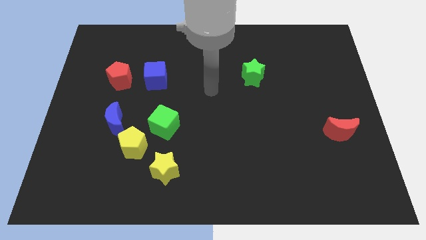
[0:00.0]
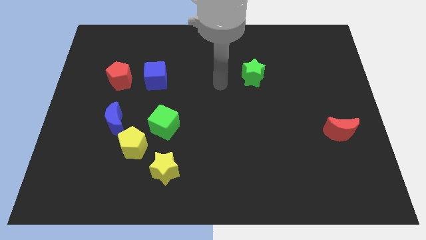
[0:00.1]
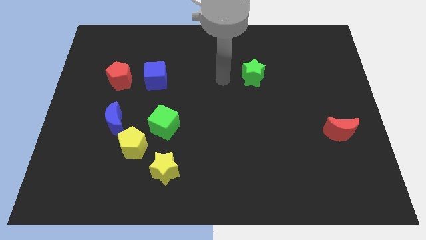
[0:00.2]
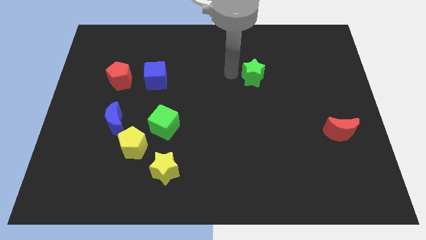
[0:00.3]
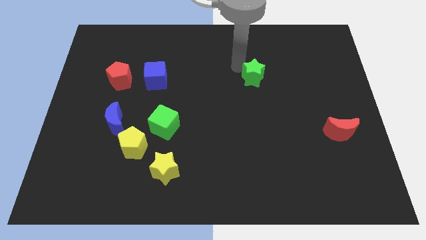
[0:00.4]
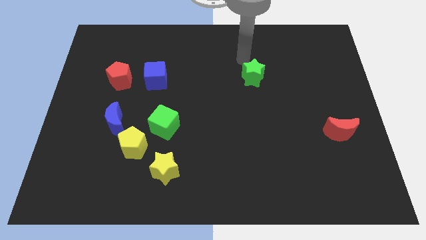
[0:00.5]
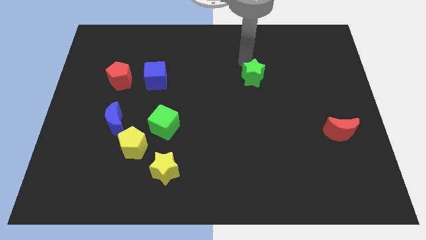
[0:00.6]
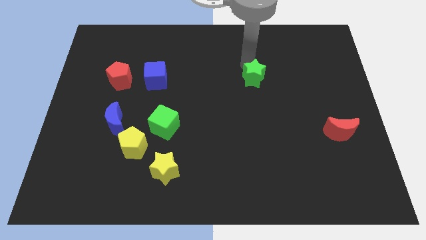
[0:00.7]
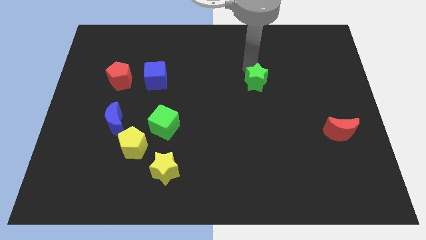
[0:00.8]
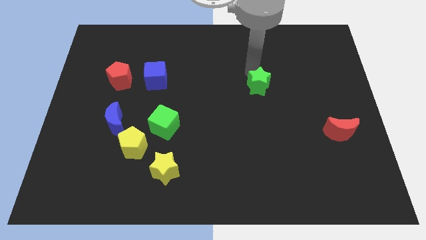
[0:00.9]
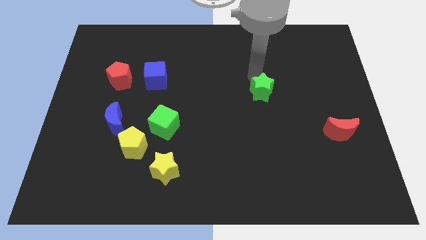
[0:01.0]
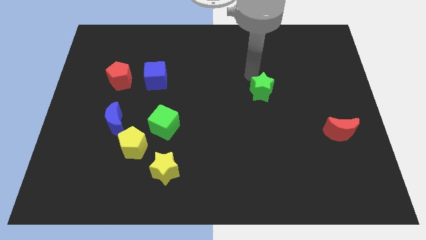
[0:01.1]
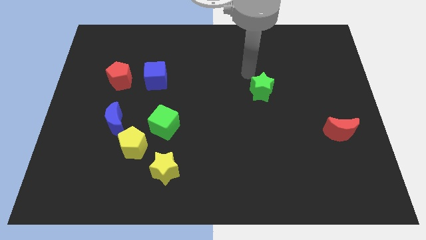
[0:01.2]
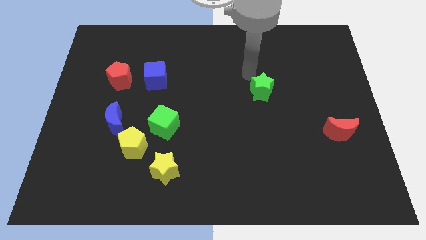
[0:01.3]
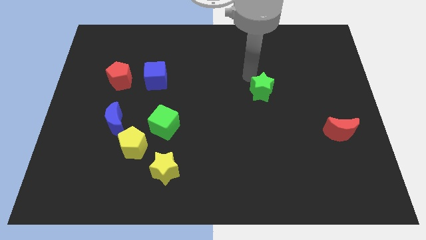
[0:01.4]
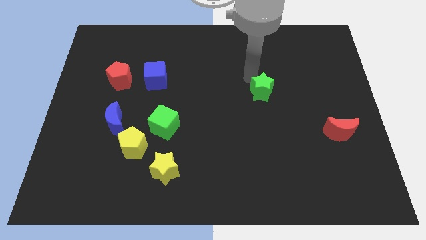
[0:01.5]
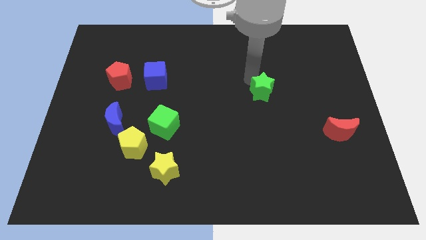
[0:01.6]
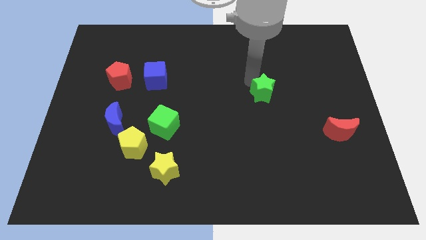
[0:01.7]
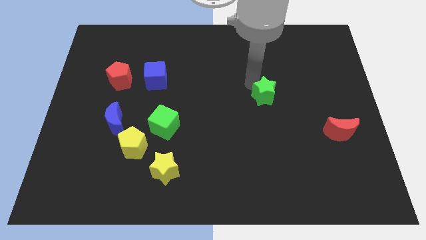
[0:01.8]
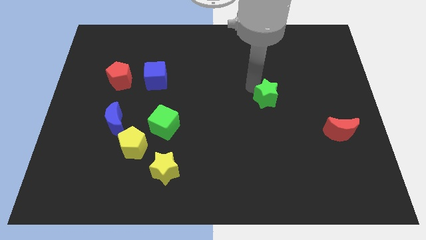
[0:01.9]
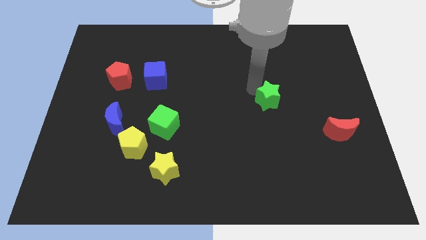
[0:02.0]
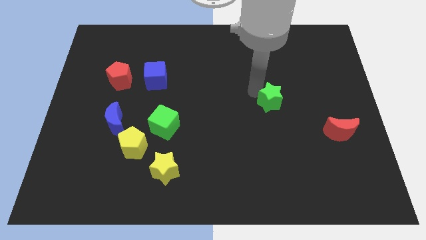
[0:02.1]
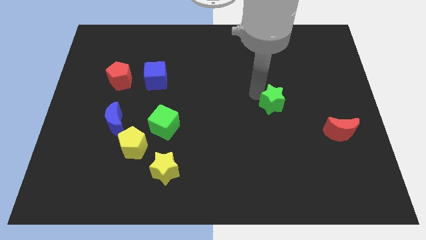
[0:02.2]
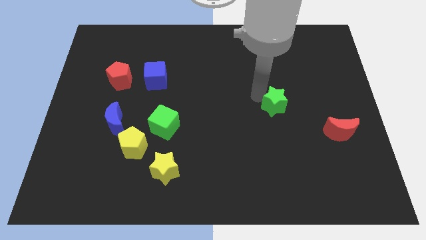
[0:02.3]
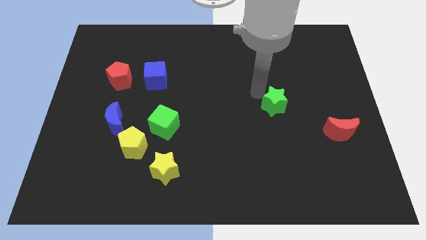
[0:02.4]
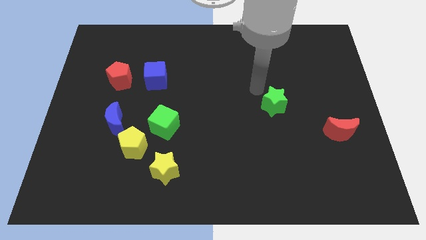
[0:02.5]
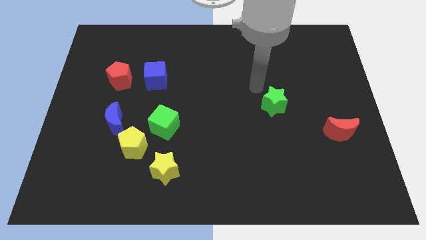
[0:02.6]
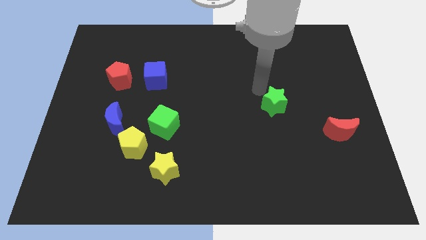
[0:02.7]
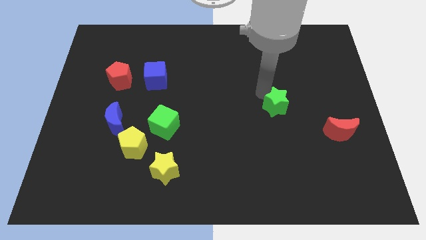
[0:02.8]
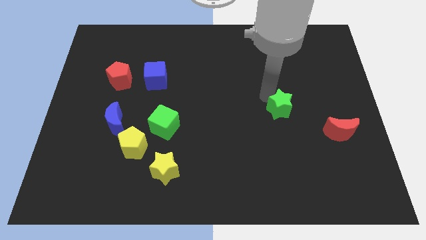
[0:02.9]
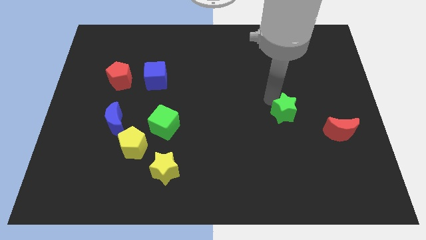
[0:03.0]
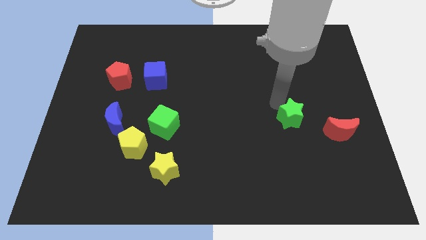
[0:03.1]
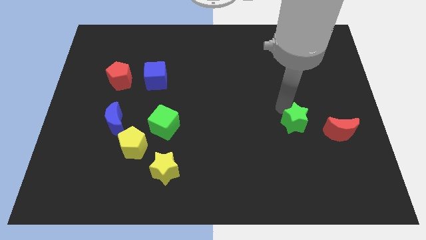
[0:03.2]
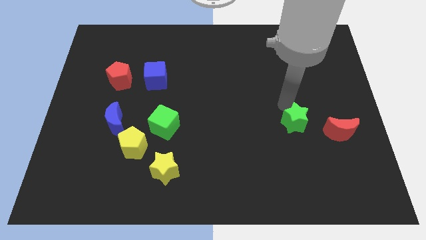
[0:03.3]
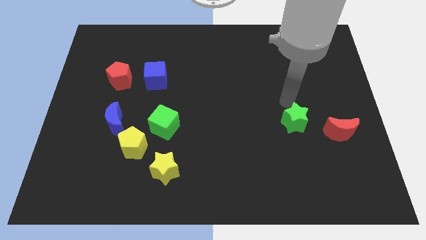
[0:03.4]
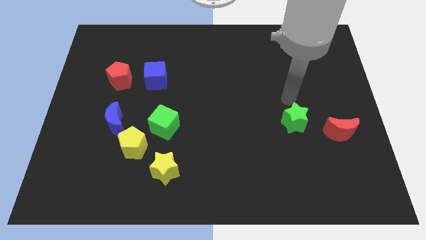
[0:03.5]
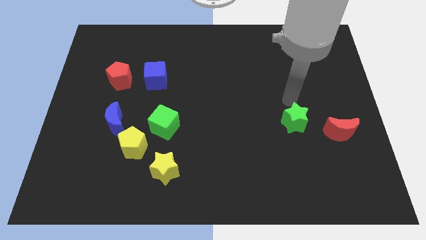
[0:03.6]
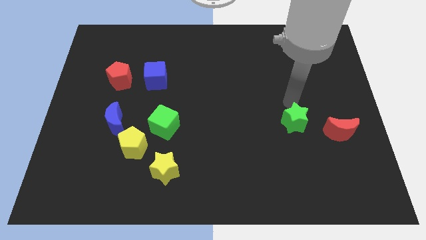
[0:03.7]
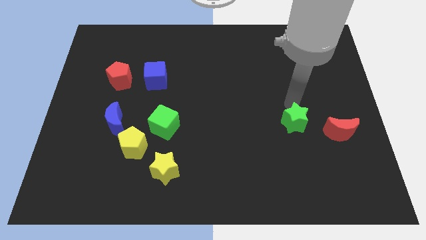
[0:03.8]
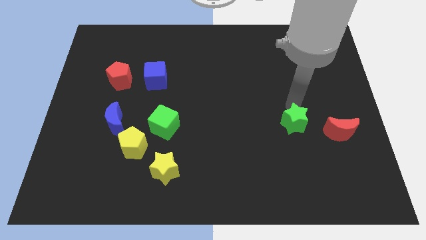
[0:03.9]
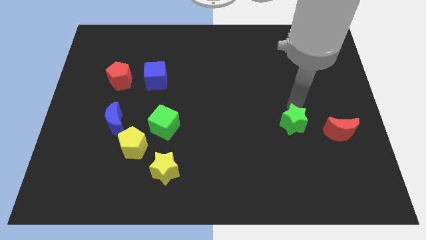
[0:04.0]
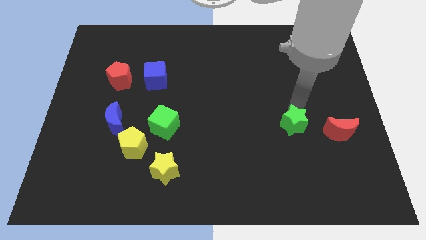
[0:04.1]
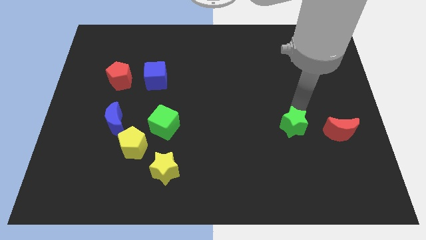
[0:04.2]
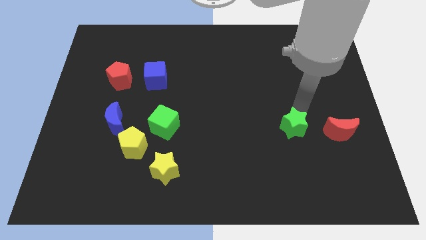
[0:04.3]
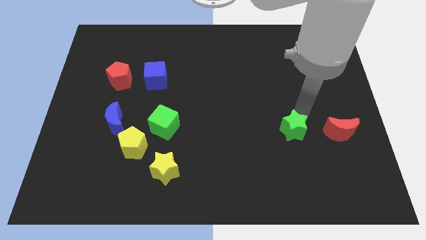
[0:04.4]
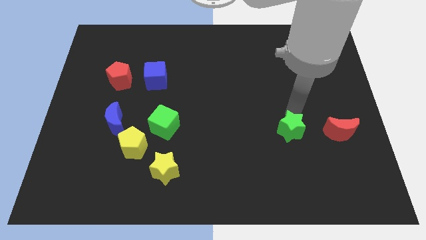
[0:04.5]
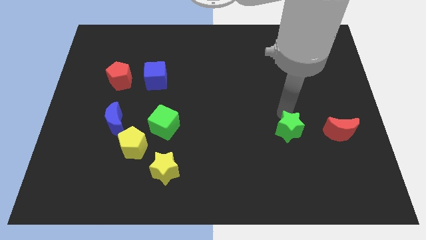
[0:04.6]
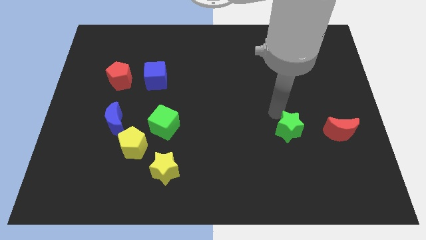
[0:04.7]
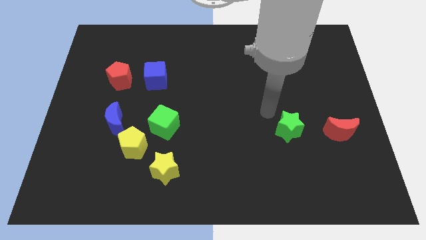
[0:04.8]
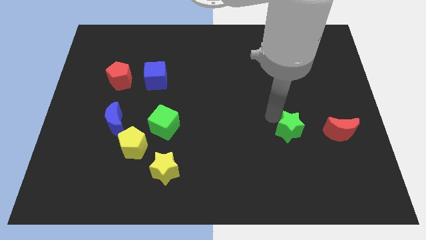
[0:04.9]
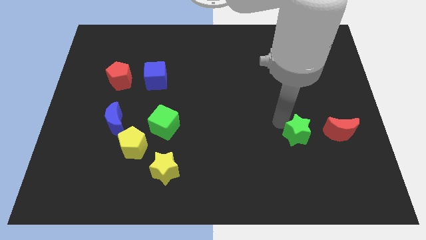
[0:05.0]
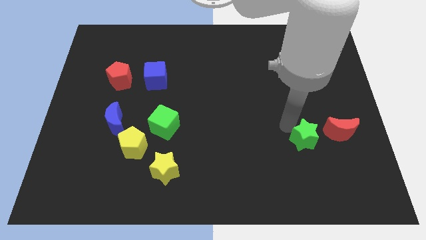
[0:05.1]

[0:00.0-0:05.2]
slide the green star diagonally down and to the left of the red moon

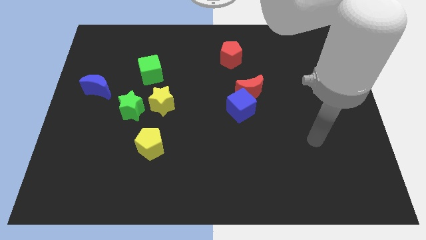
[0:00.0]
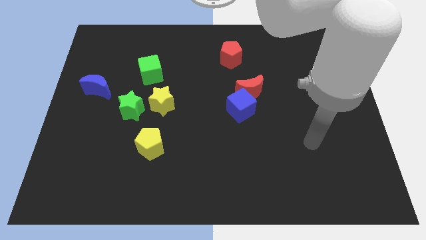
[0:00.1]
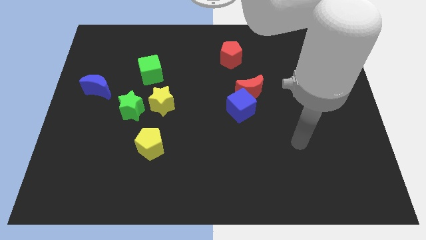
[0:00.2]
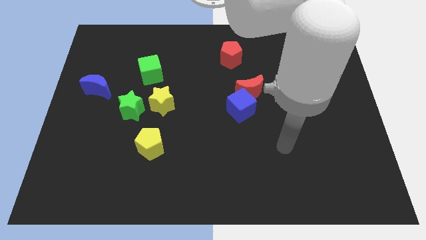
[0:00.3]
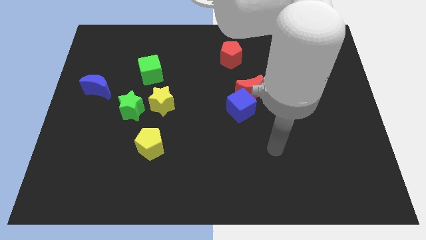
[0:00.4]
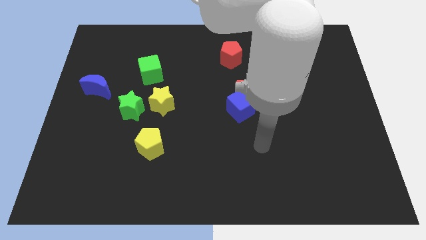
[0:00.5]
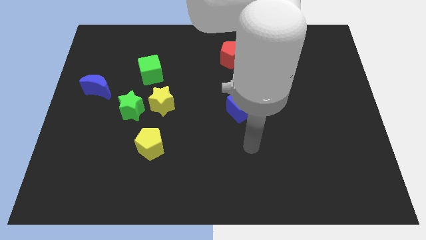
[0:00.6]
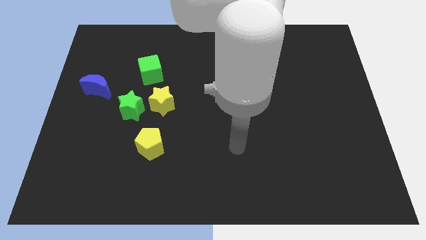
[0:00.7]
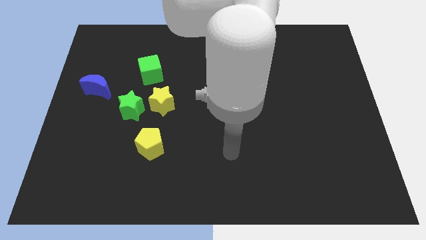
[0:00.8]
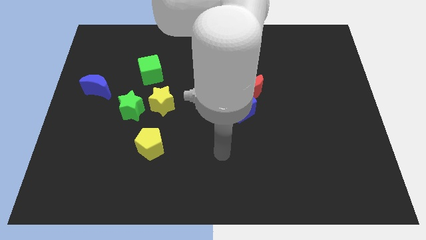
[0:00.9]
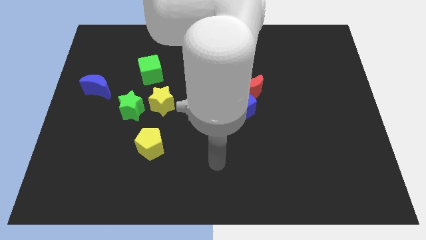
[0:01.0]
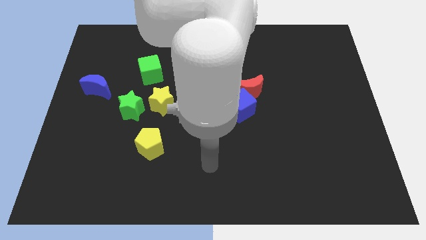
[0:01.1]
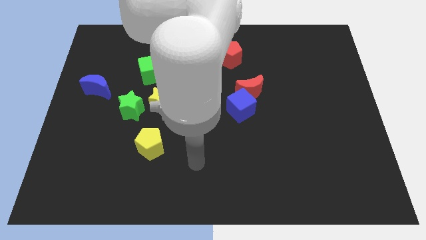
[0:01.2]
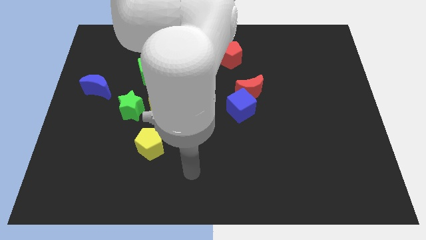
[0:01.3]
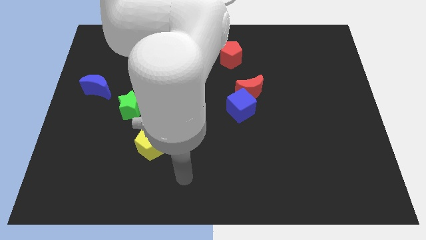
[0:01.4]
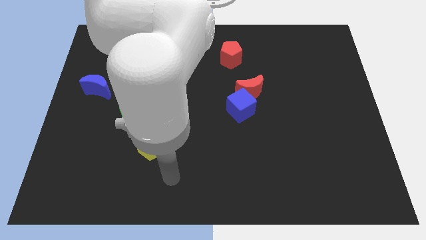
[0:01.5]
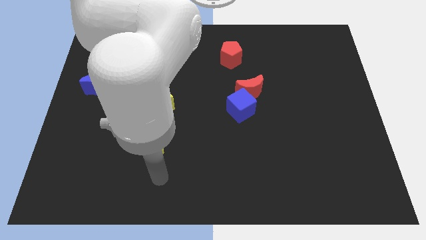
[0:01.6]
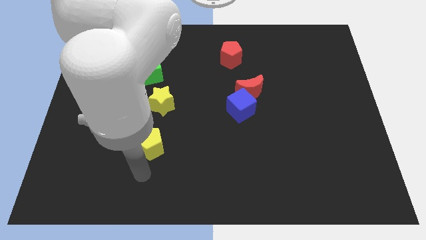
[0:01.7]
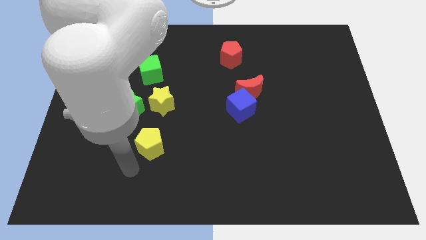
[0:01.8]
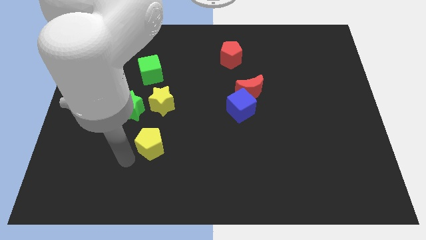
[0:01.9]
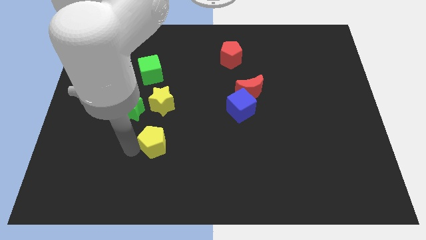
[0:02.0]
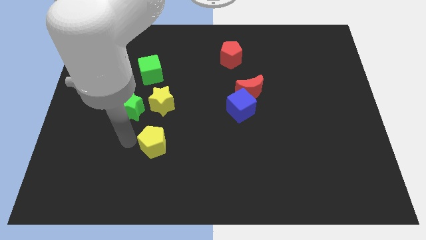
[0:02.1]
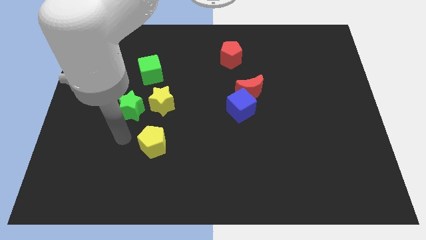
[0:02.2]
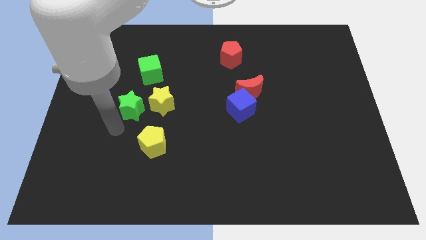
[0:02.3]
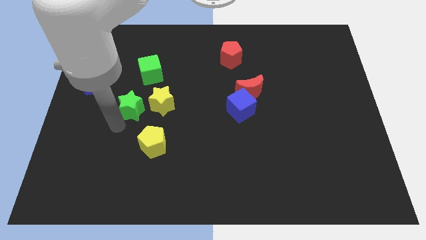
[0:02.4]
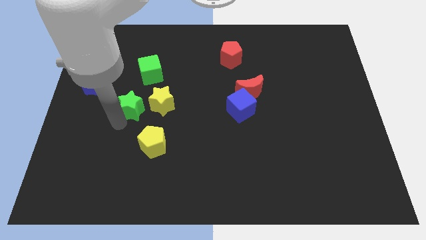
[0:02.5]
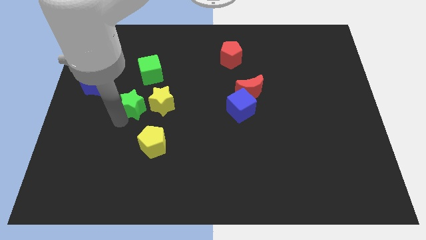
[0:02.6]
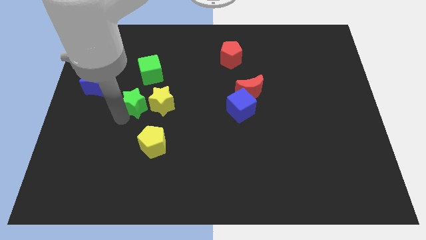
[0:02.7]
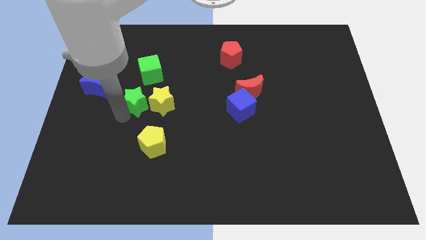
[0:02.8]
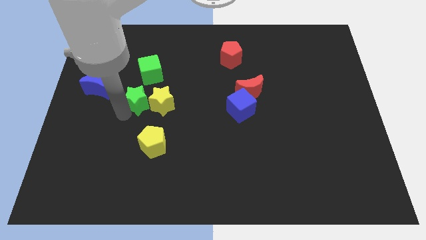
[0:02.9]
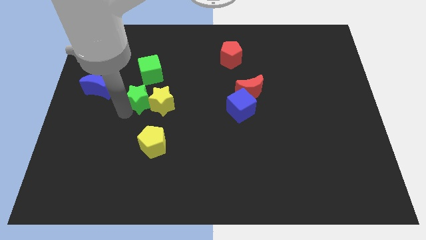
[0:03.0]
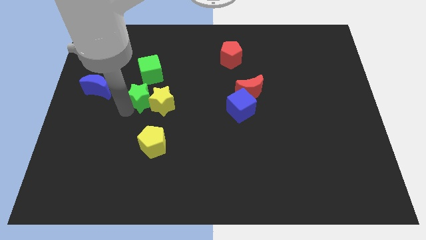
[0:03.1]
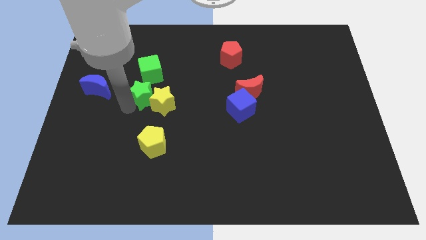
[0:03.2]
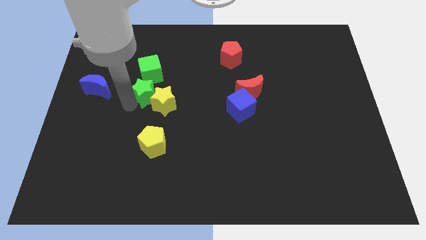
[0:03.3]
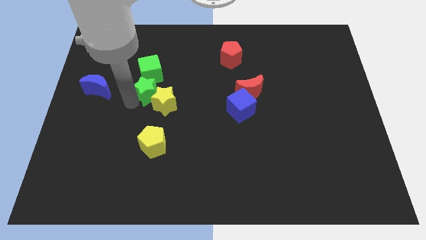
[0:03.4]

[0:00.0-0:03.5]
put the green star to the top of the yellow star
